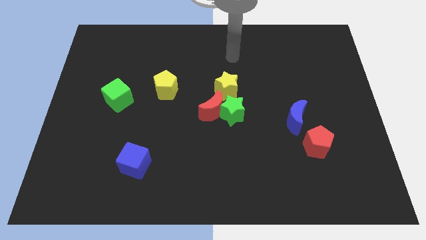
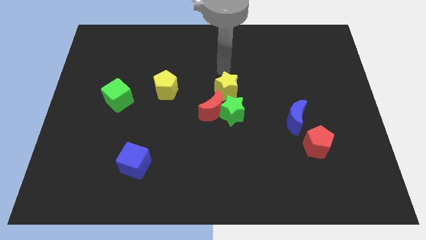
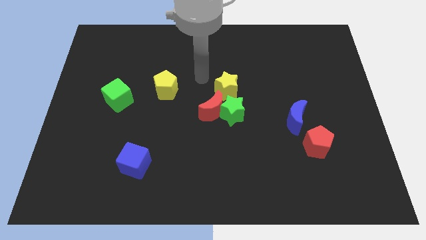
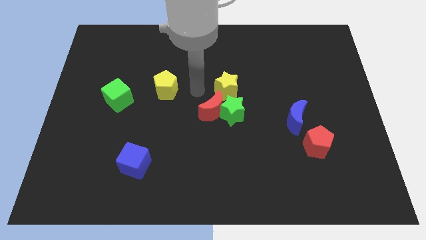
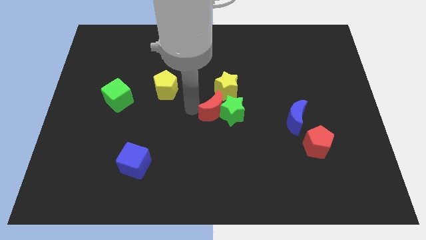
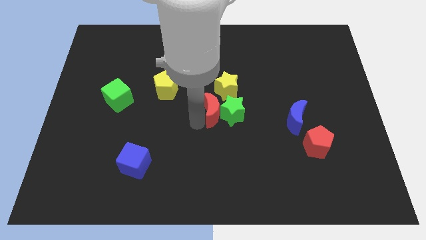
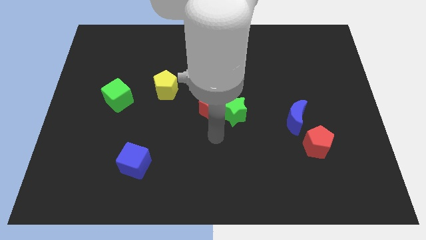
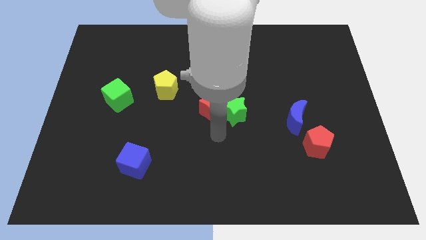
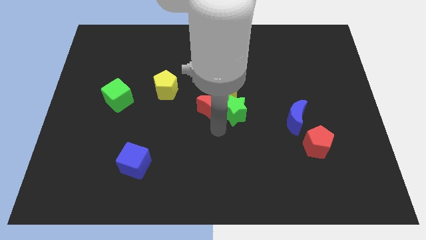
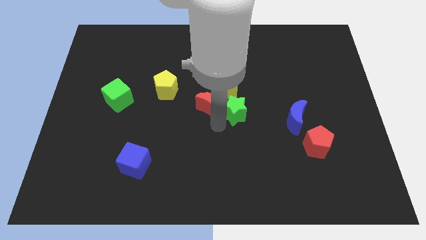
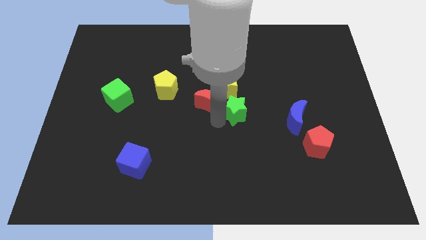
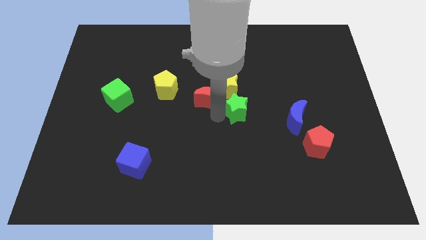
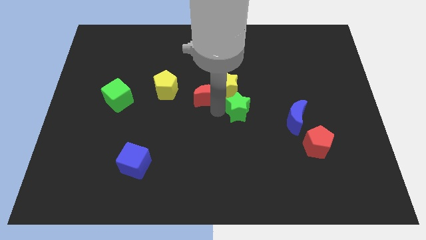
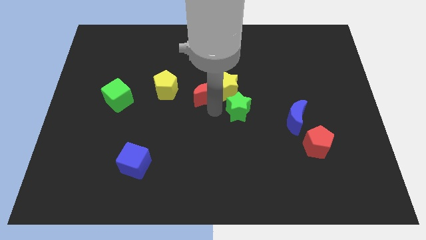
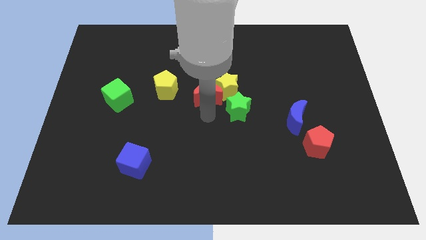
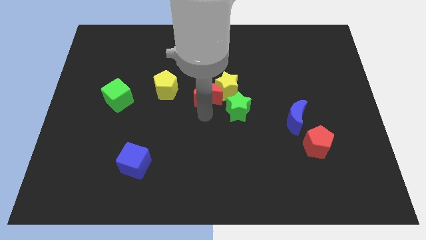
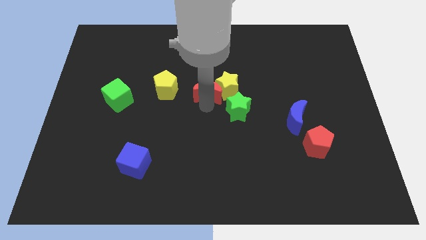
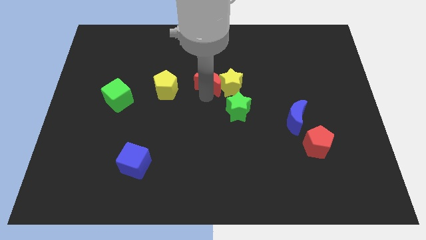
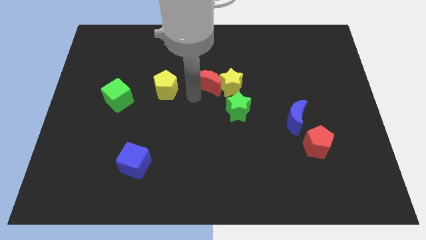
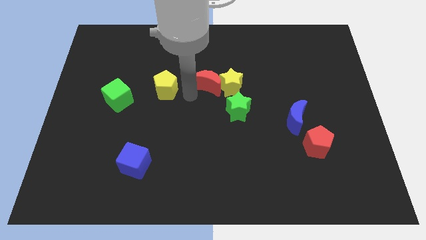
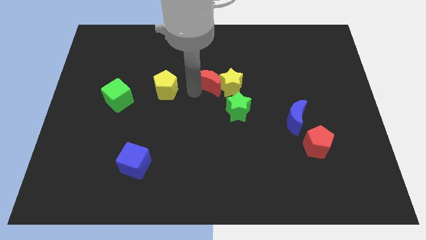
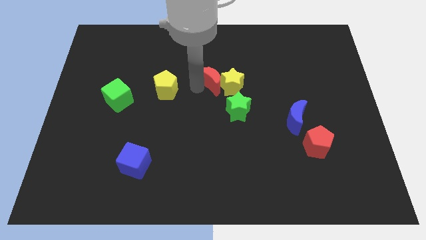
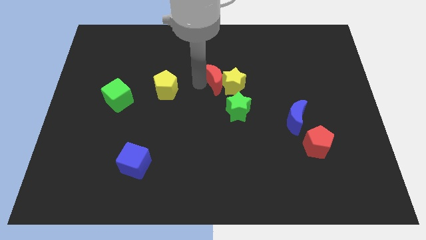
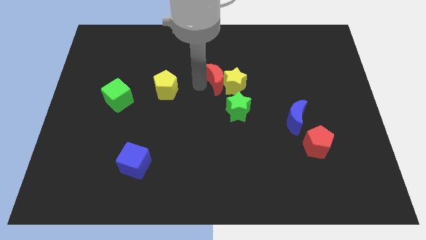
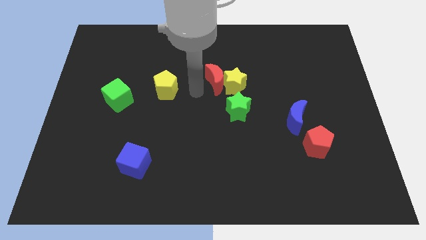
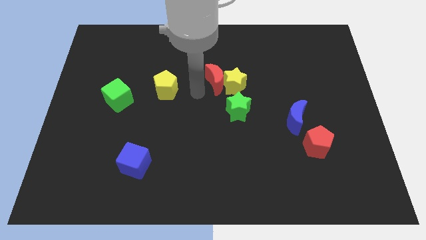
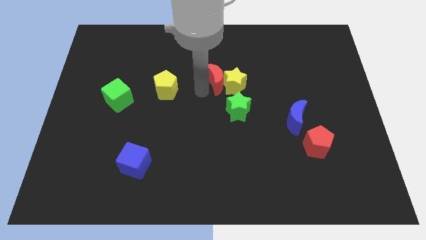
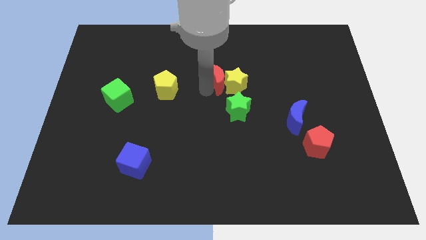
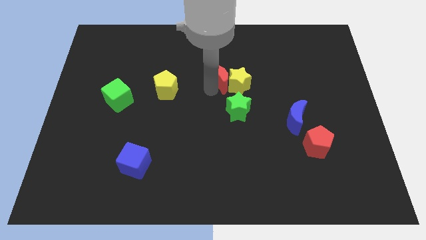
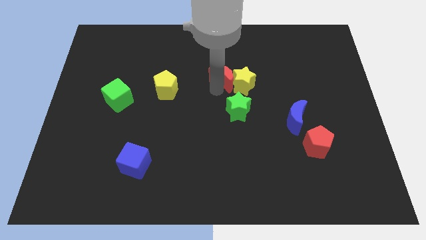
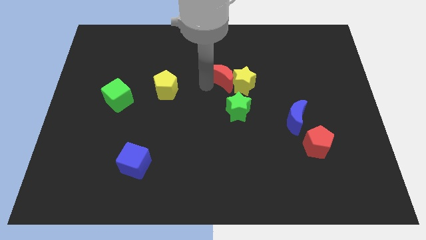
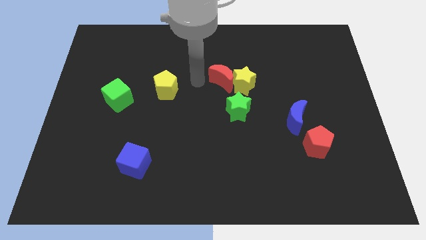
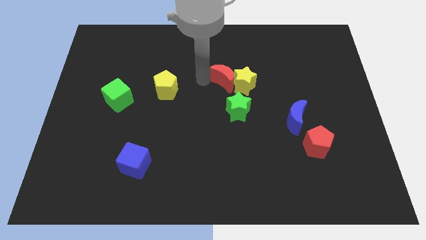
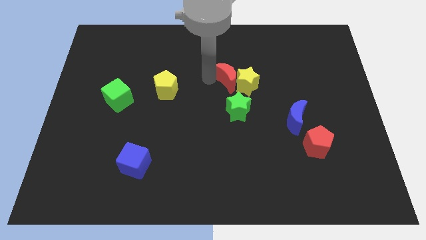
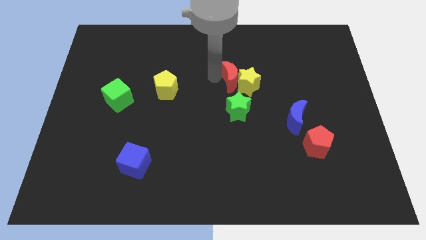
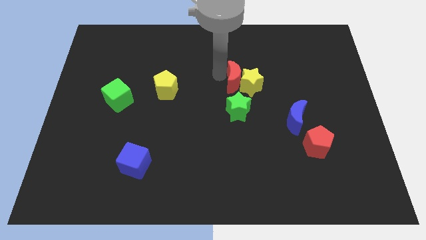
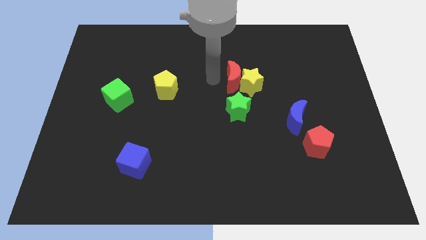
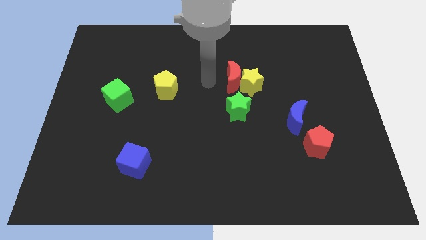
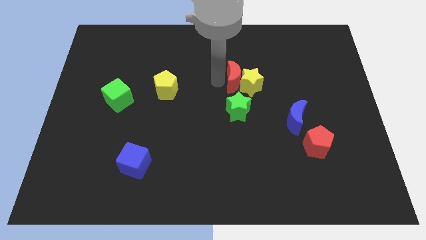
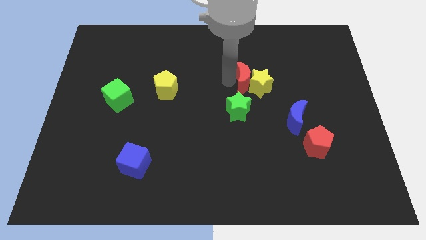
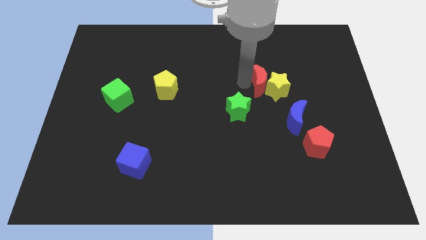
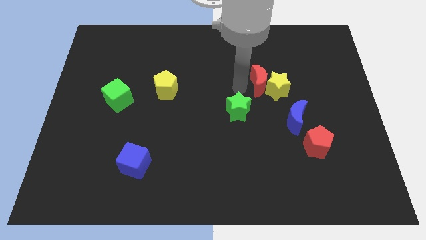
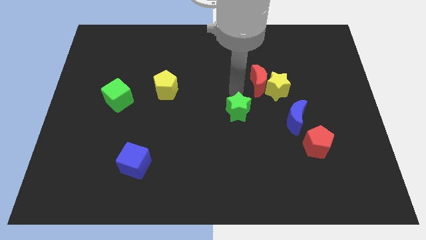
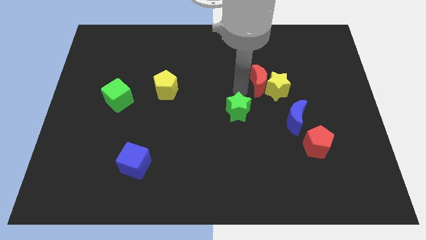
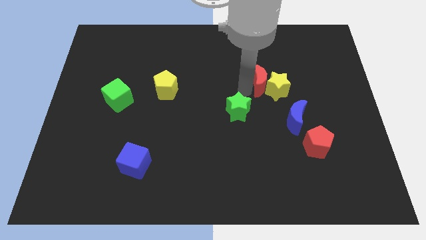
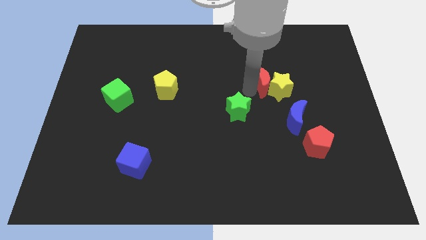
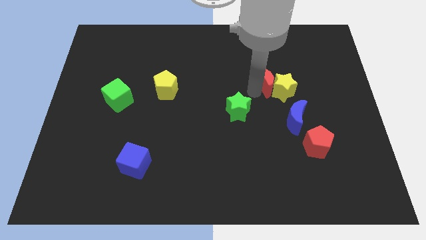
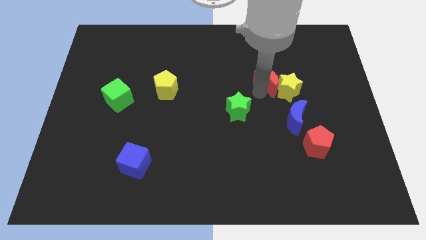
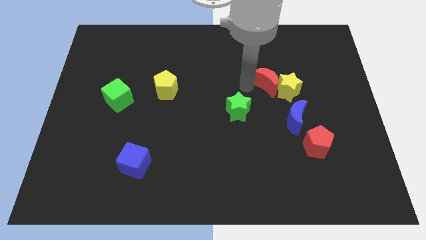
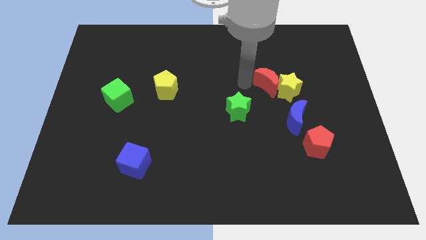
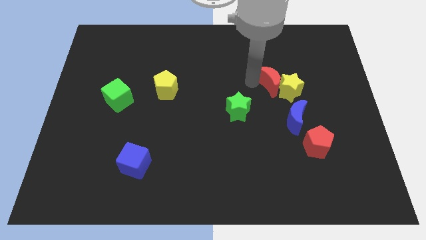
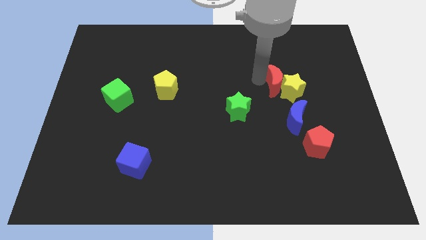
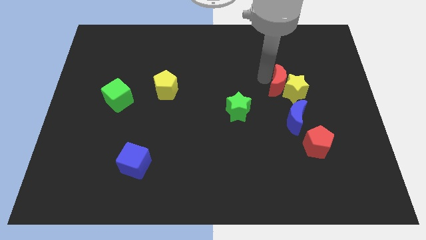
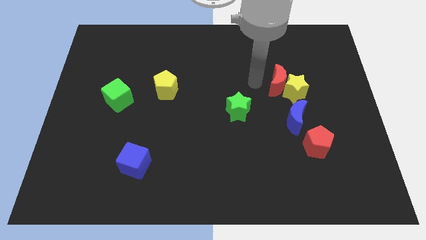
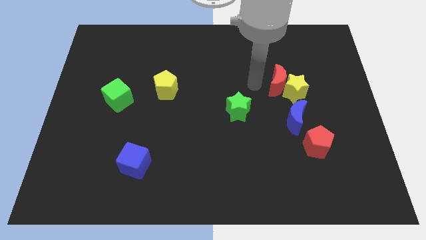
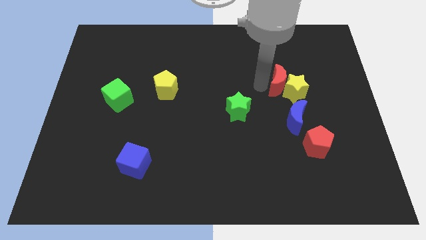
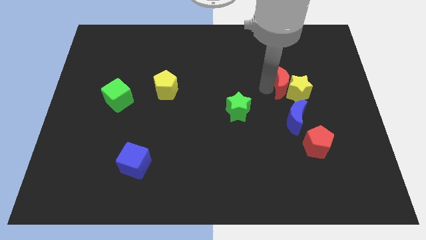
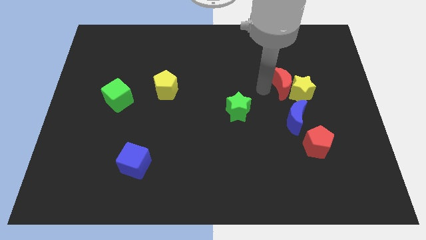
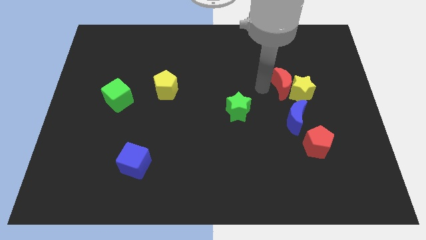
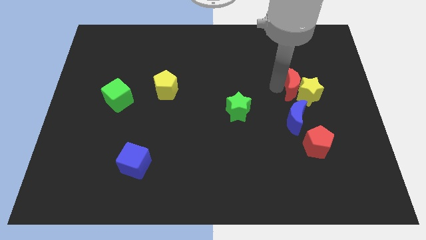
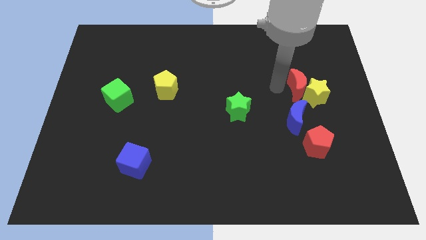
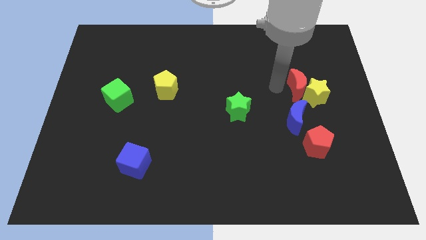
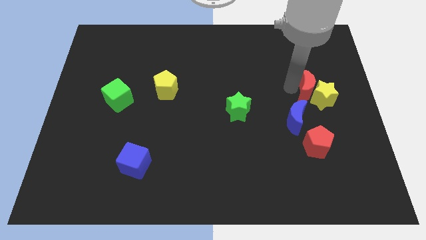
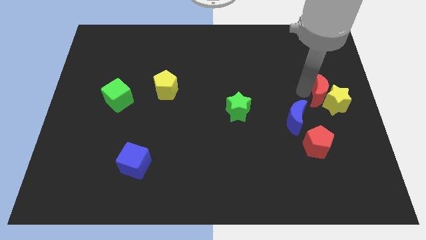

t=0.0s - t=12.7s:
put the red moon to the right side
